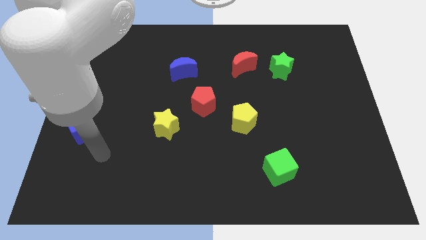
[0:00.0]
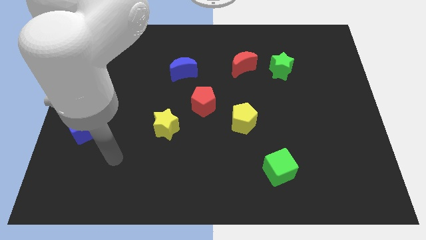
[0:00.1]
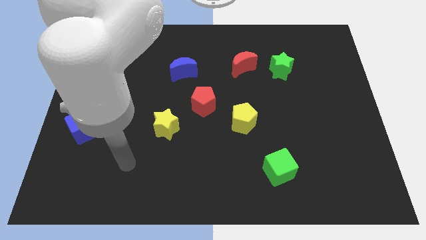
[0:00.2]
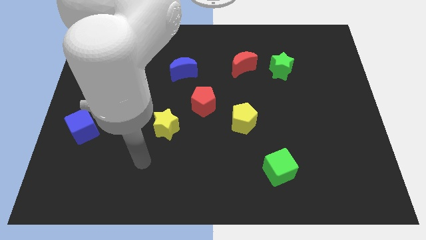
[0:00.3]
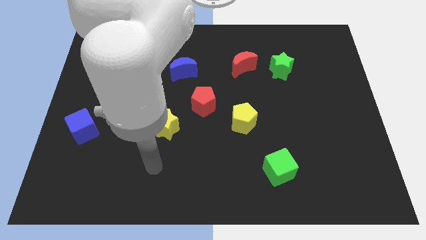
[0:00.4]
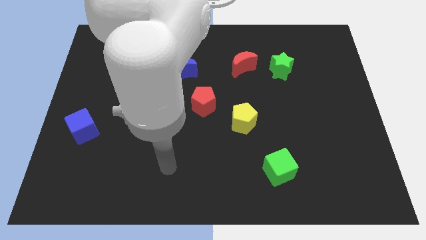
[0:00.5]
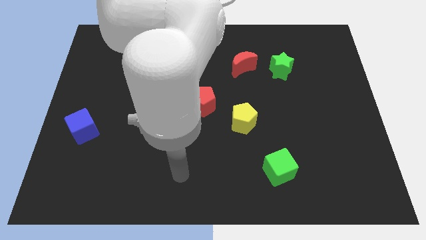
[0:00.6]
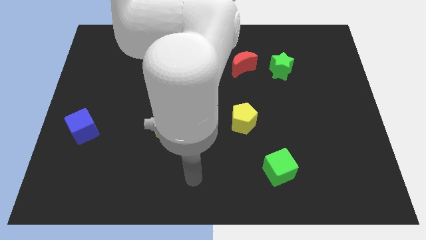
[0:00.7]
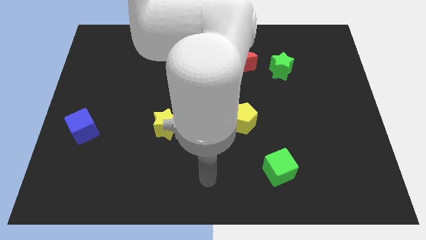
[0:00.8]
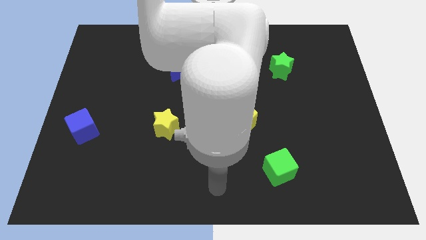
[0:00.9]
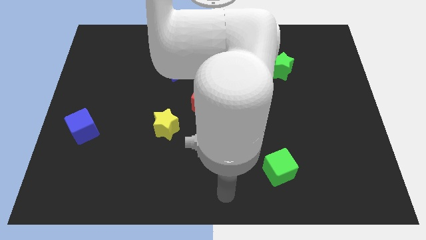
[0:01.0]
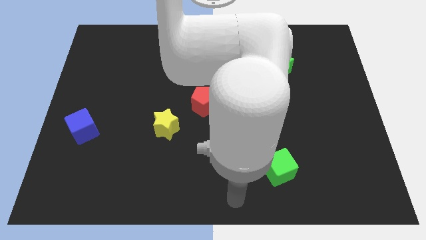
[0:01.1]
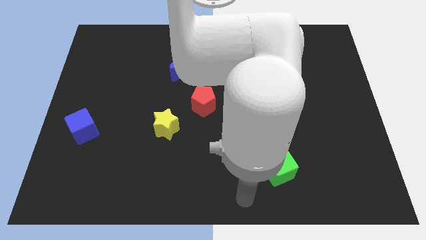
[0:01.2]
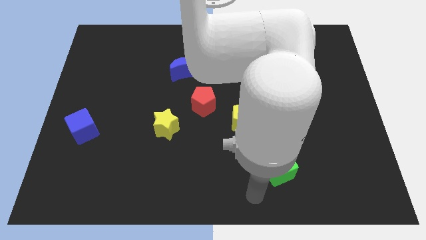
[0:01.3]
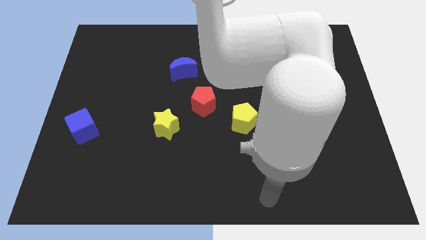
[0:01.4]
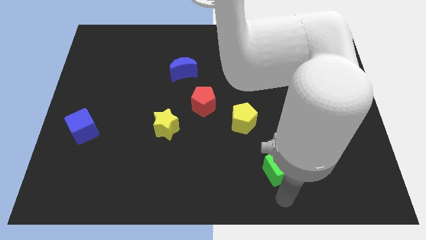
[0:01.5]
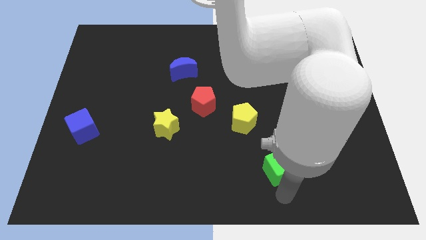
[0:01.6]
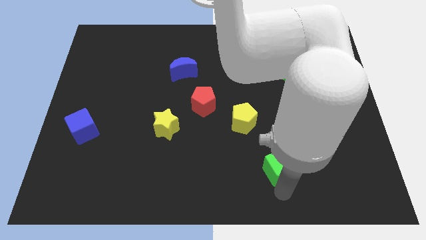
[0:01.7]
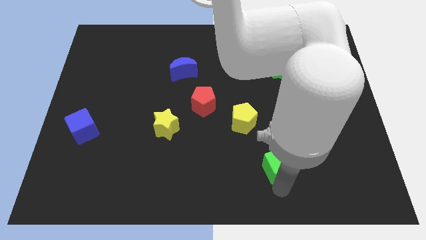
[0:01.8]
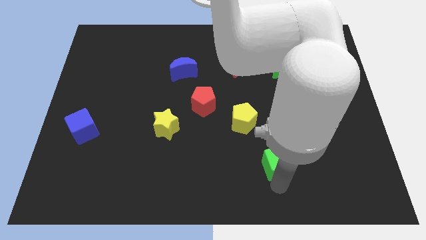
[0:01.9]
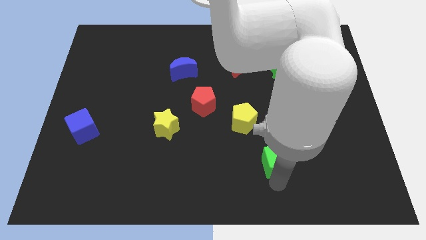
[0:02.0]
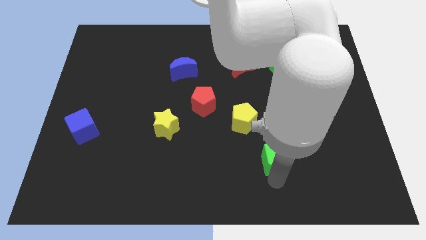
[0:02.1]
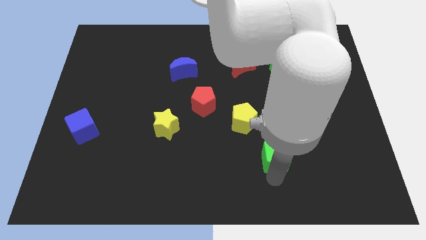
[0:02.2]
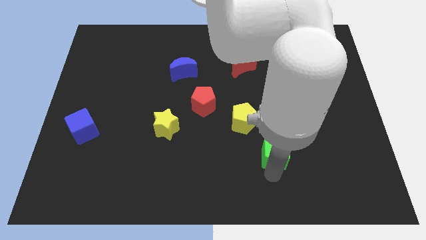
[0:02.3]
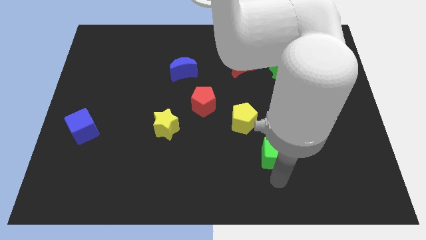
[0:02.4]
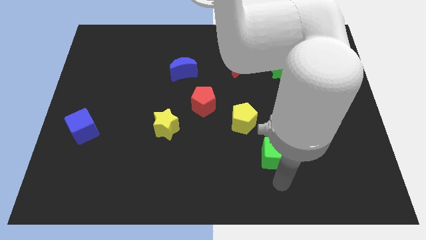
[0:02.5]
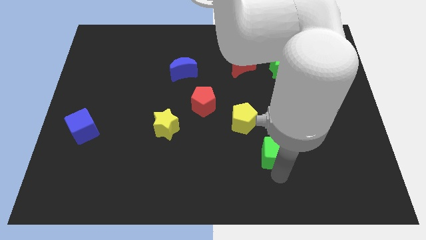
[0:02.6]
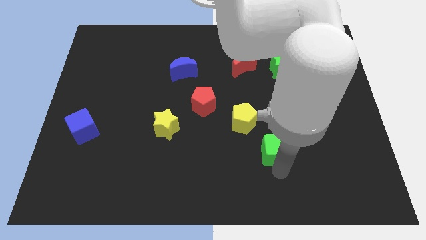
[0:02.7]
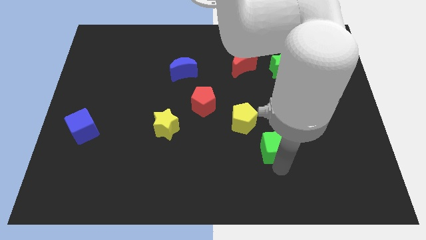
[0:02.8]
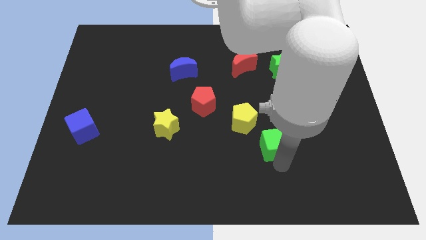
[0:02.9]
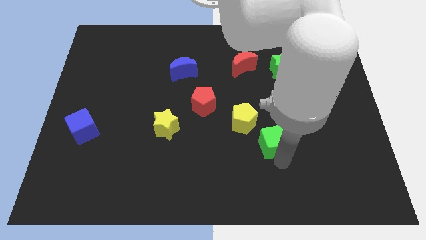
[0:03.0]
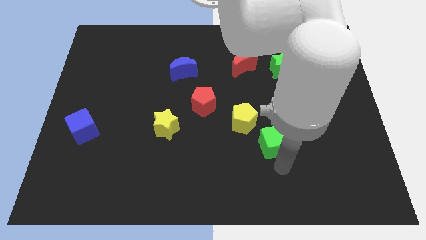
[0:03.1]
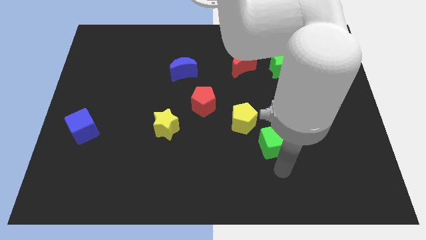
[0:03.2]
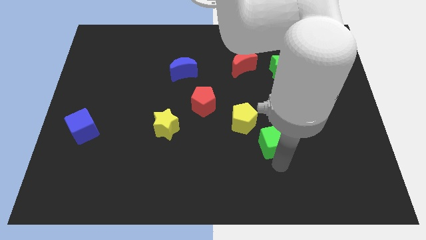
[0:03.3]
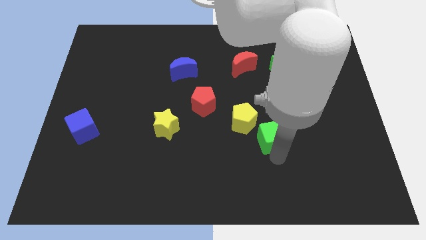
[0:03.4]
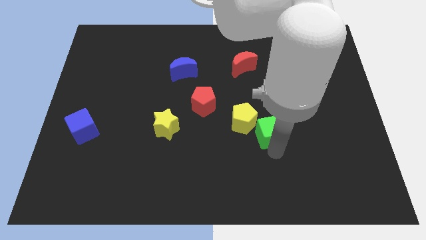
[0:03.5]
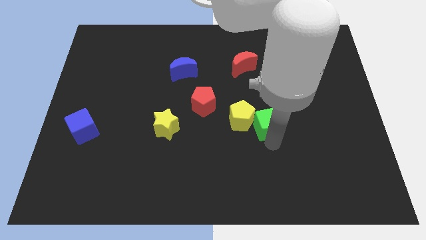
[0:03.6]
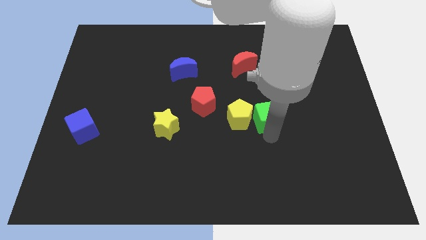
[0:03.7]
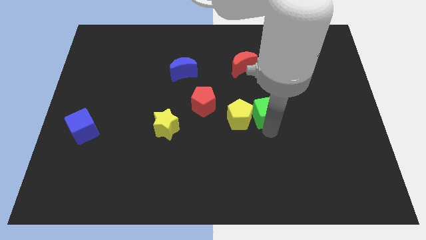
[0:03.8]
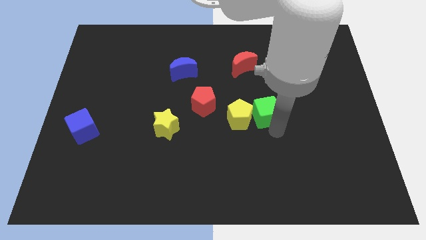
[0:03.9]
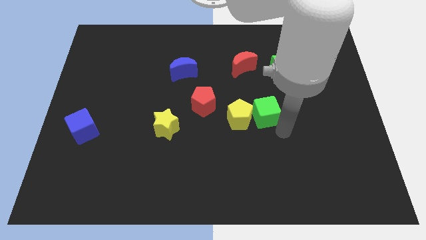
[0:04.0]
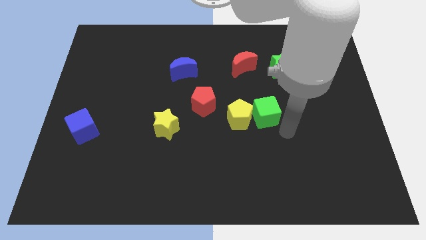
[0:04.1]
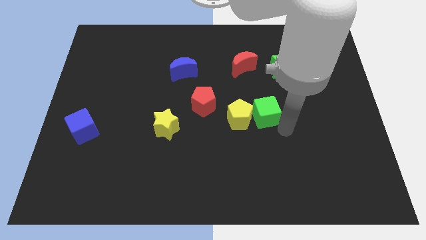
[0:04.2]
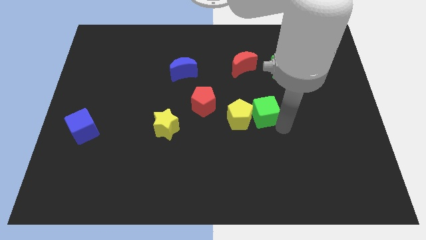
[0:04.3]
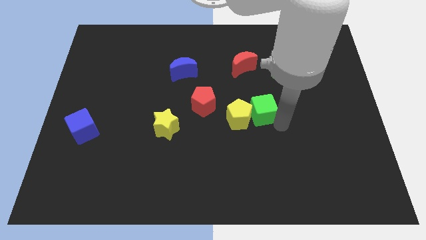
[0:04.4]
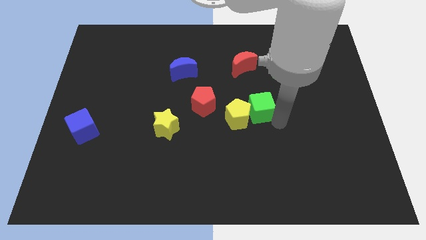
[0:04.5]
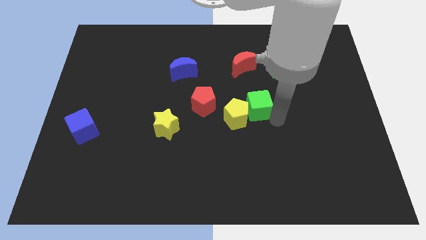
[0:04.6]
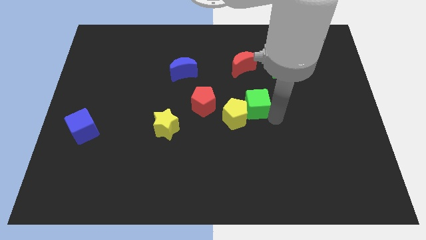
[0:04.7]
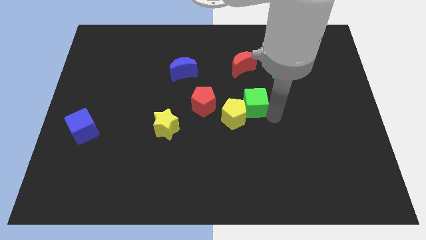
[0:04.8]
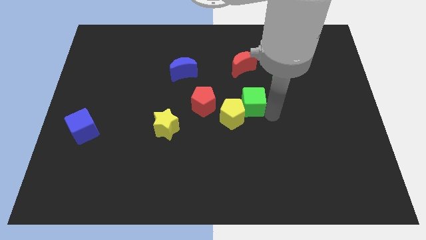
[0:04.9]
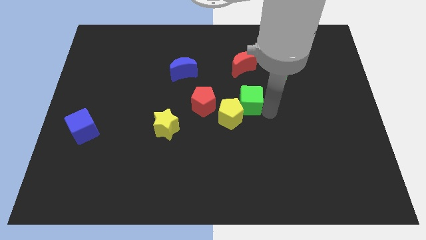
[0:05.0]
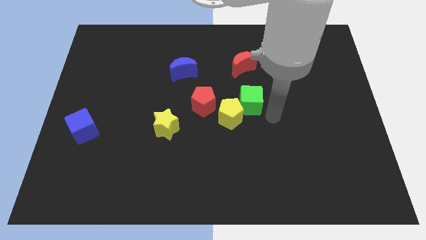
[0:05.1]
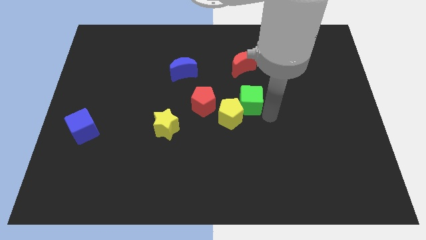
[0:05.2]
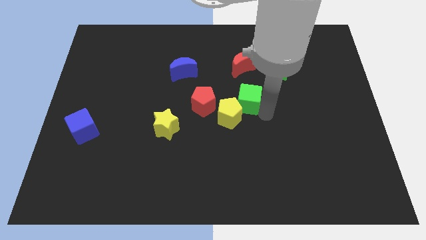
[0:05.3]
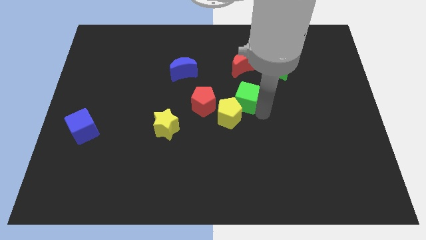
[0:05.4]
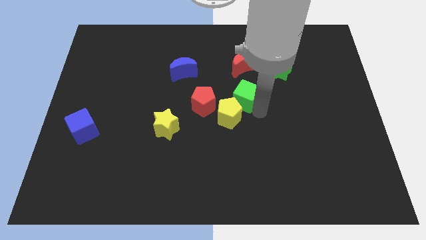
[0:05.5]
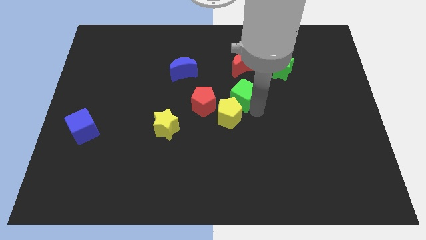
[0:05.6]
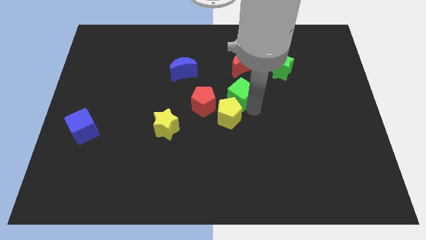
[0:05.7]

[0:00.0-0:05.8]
put the green cube to the top right side of the red pentagon

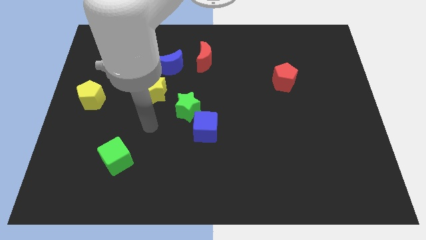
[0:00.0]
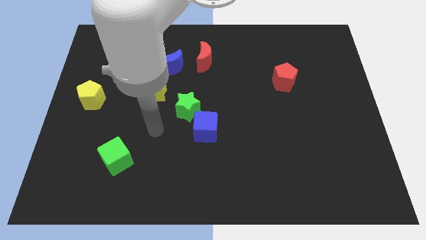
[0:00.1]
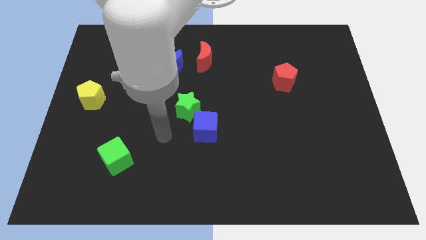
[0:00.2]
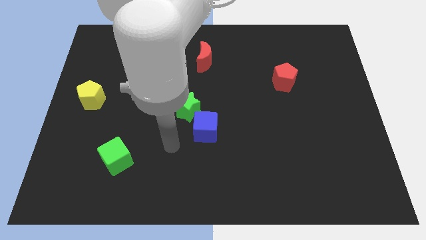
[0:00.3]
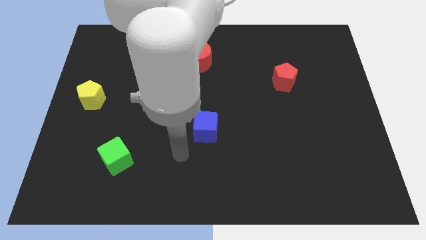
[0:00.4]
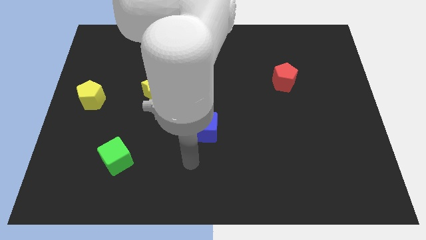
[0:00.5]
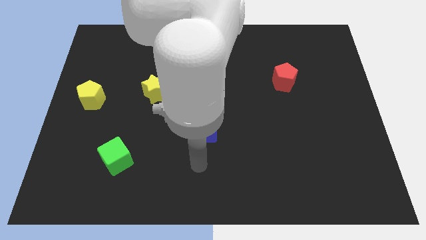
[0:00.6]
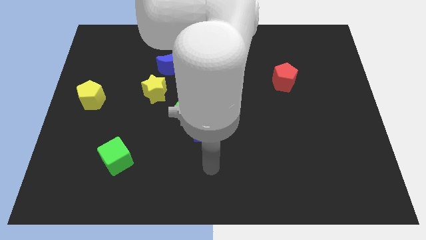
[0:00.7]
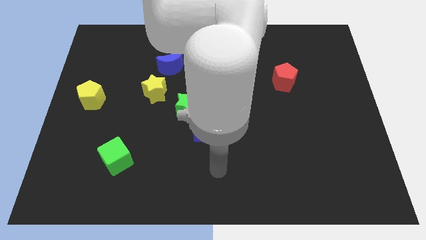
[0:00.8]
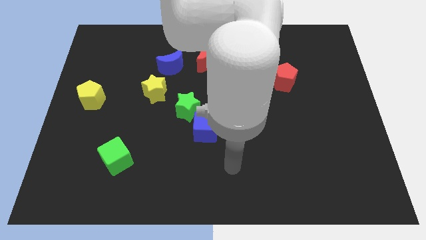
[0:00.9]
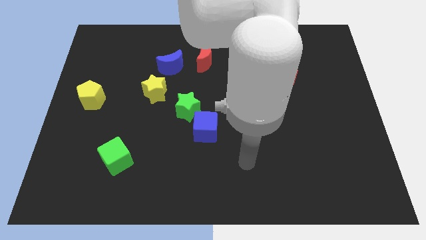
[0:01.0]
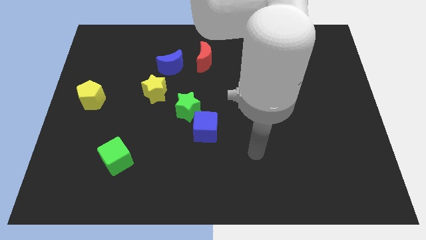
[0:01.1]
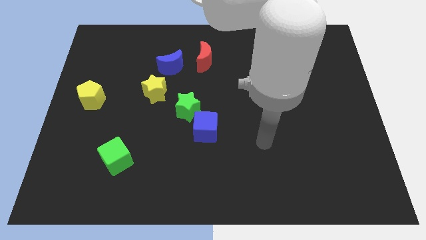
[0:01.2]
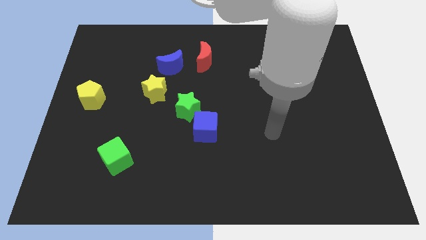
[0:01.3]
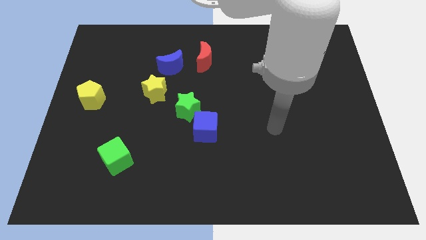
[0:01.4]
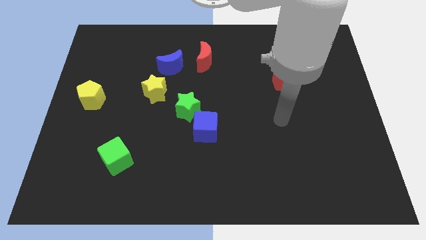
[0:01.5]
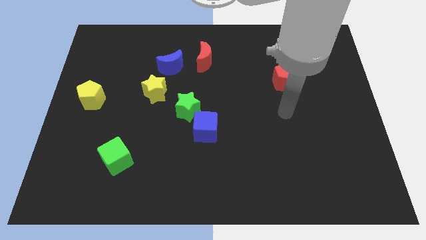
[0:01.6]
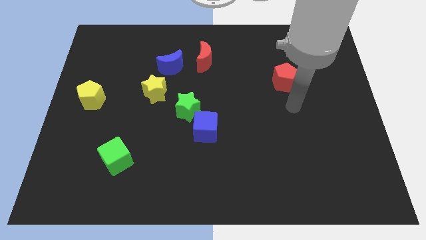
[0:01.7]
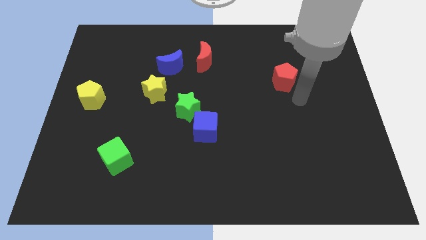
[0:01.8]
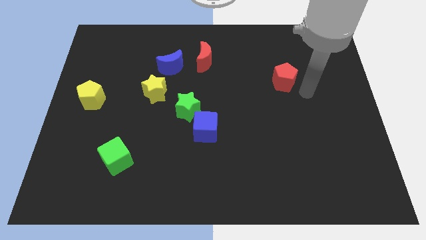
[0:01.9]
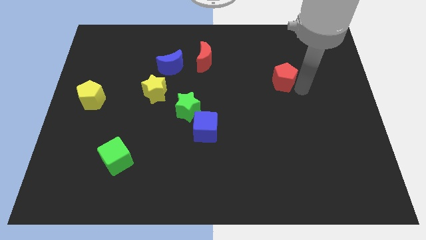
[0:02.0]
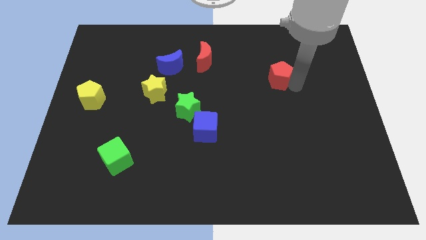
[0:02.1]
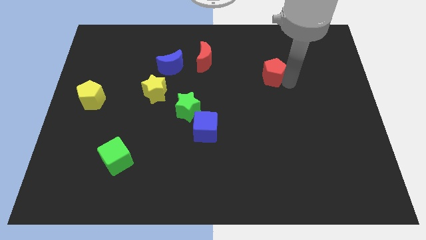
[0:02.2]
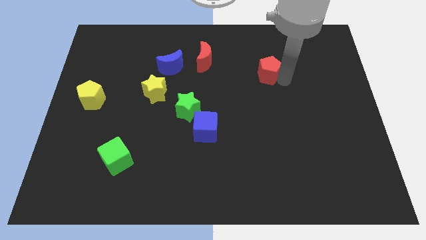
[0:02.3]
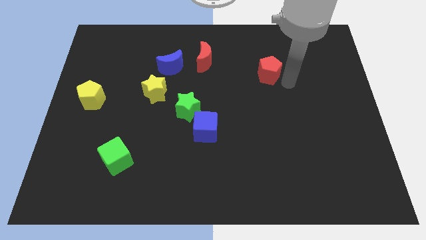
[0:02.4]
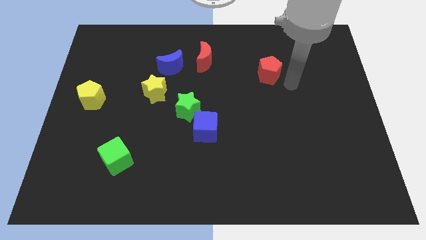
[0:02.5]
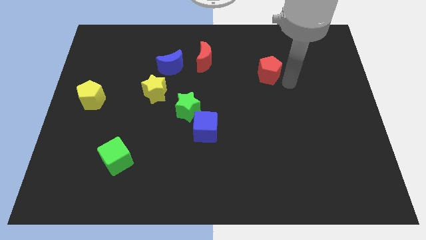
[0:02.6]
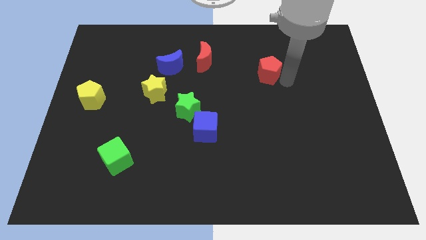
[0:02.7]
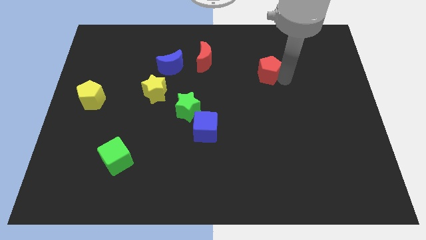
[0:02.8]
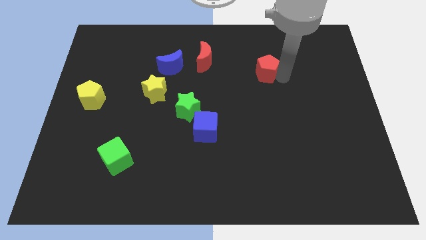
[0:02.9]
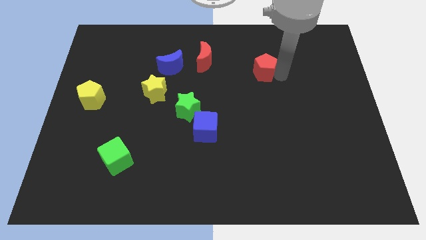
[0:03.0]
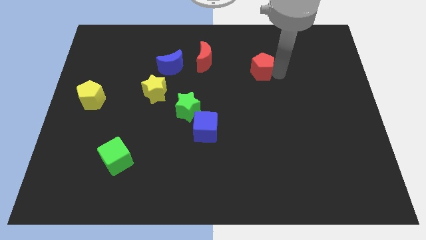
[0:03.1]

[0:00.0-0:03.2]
put the red pentagon just right of the red moon
